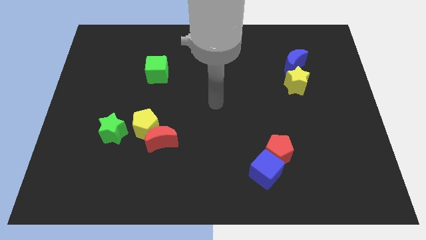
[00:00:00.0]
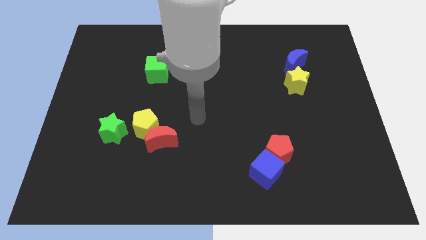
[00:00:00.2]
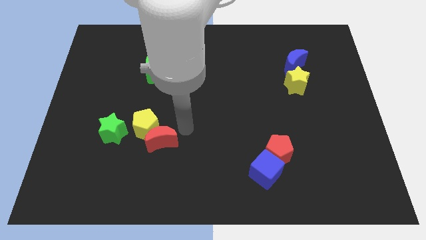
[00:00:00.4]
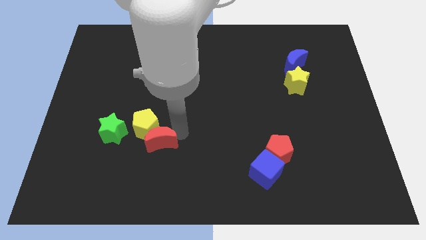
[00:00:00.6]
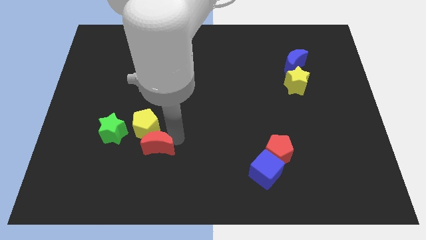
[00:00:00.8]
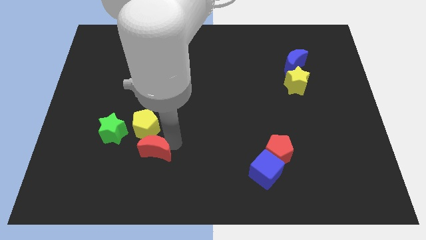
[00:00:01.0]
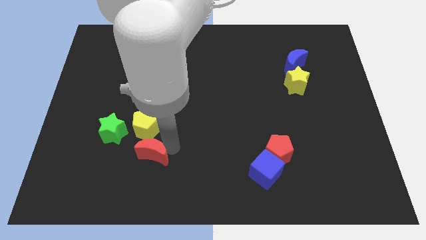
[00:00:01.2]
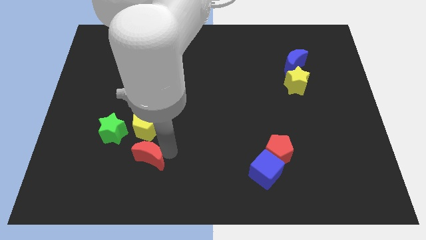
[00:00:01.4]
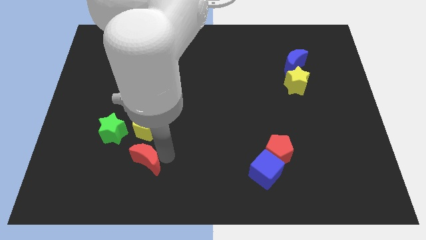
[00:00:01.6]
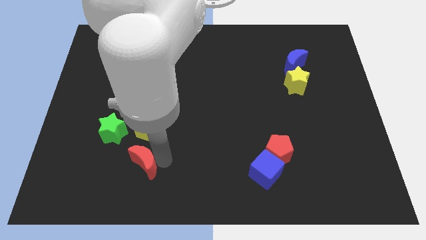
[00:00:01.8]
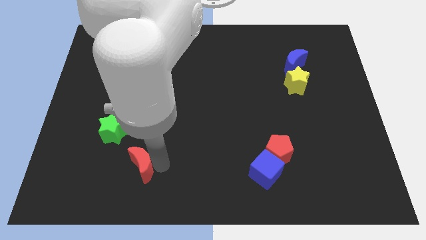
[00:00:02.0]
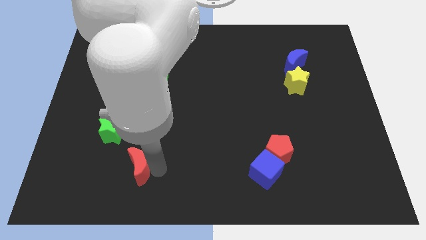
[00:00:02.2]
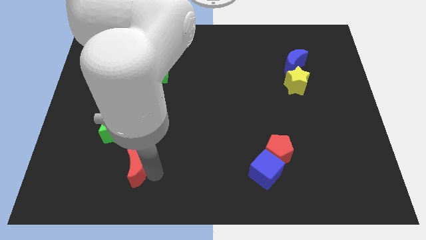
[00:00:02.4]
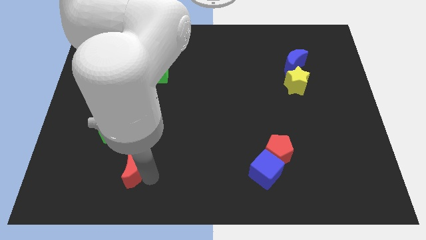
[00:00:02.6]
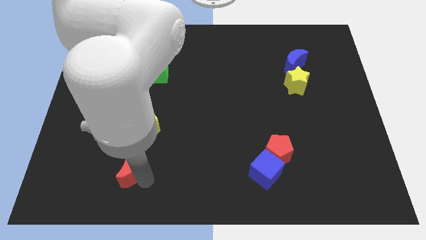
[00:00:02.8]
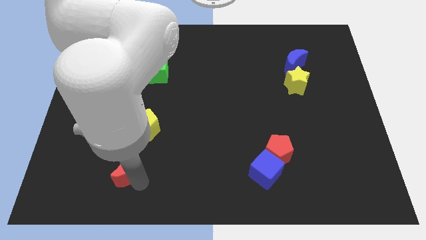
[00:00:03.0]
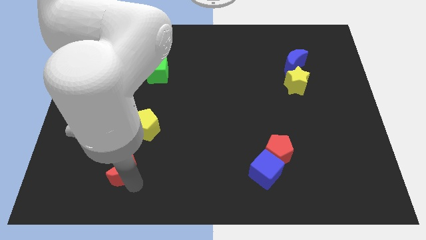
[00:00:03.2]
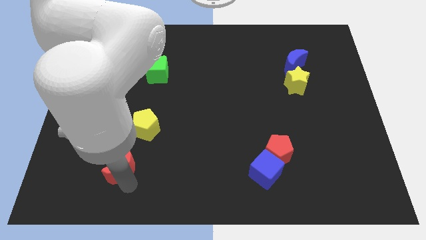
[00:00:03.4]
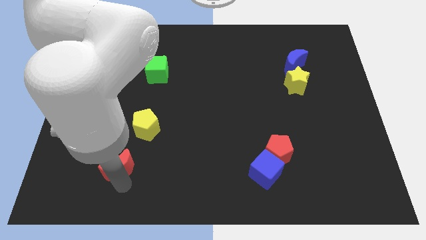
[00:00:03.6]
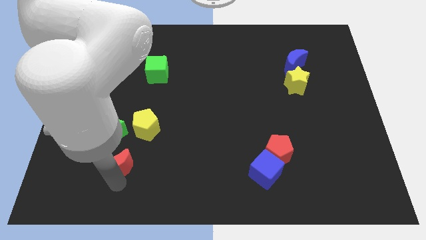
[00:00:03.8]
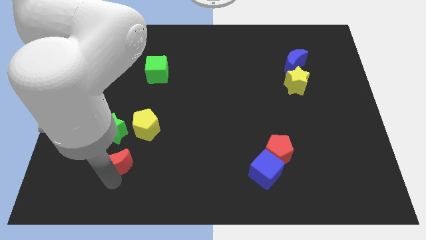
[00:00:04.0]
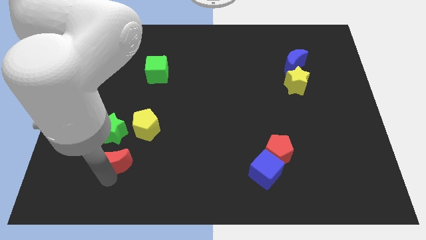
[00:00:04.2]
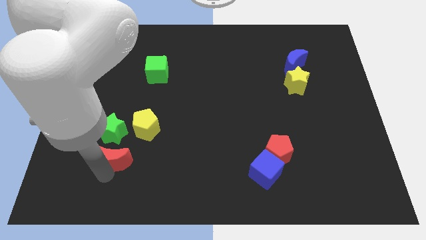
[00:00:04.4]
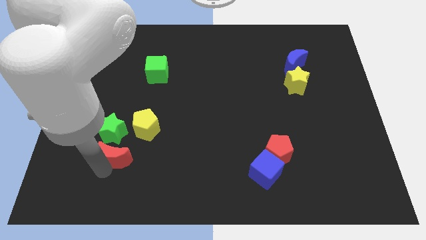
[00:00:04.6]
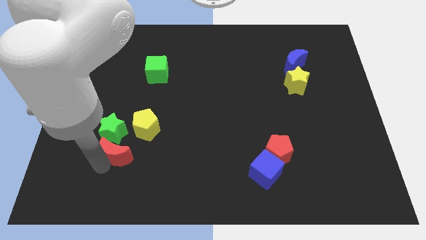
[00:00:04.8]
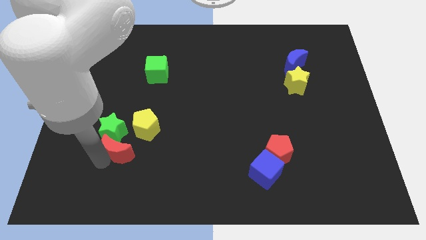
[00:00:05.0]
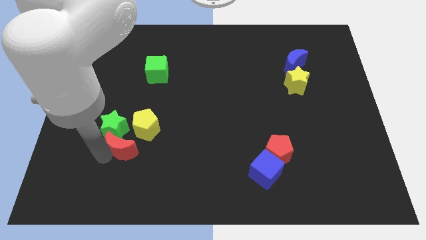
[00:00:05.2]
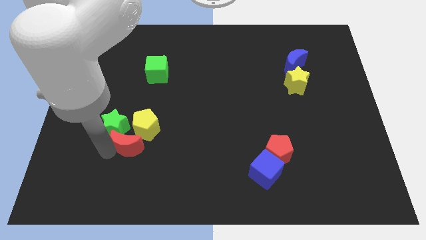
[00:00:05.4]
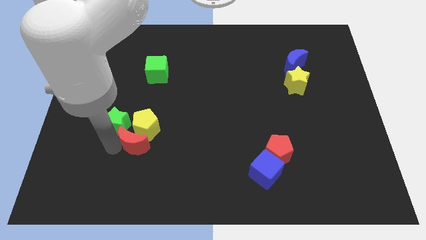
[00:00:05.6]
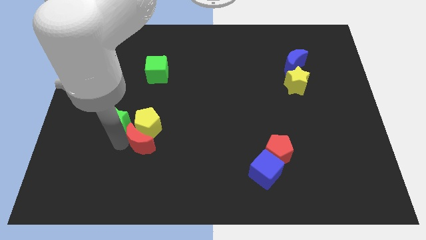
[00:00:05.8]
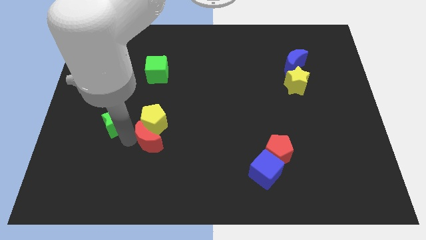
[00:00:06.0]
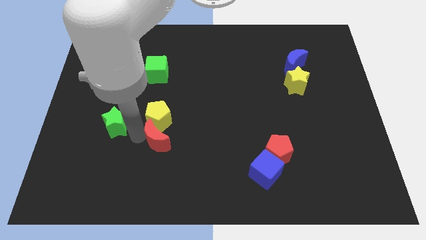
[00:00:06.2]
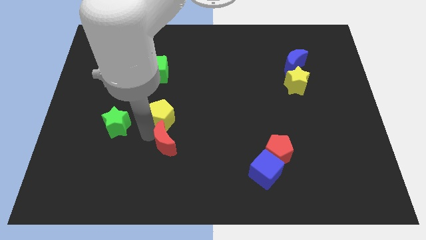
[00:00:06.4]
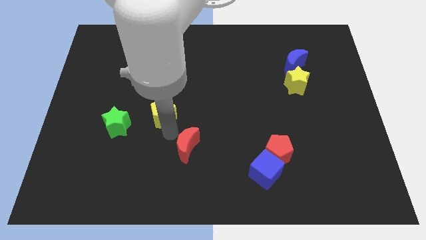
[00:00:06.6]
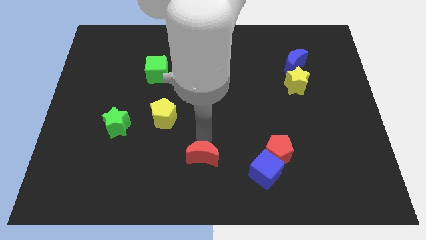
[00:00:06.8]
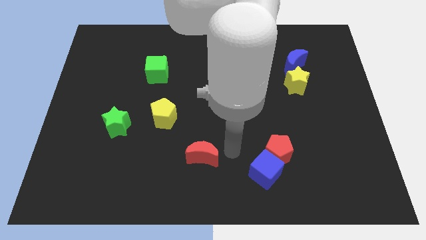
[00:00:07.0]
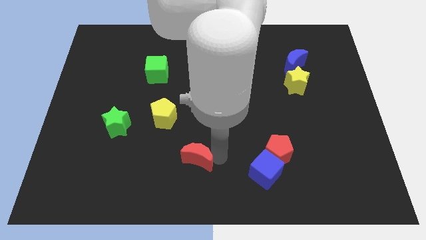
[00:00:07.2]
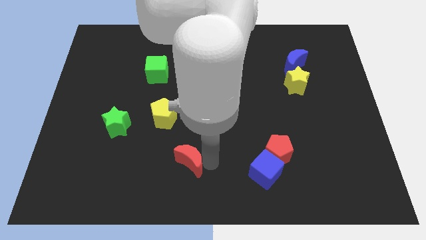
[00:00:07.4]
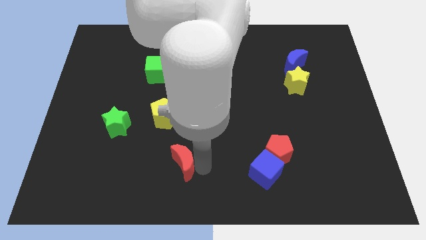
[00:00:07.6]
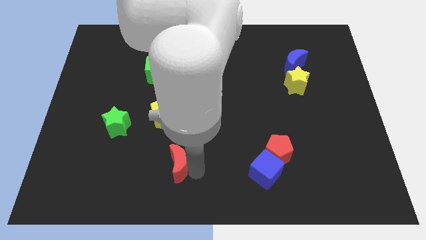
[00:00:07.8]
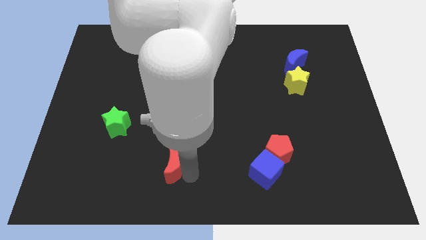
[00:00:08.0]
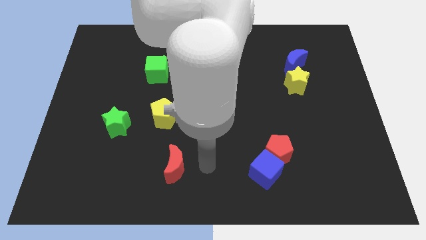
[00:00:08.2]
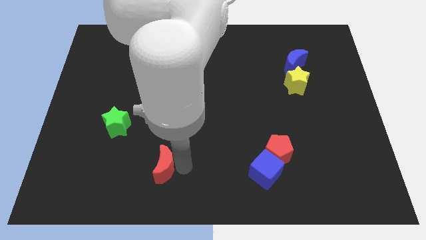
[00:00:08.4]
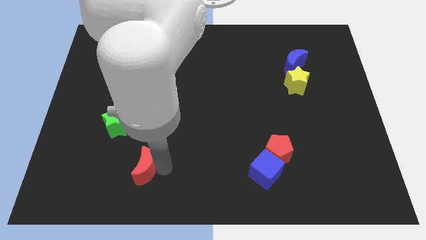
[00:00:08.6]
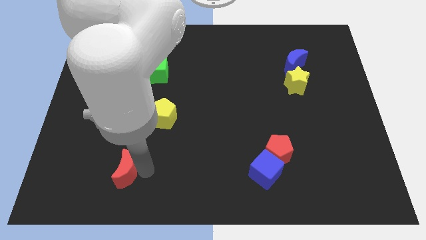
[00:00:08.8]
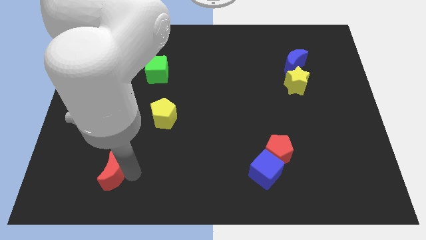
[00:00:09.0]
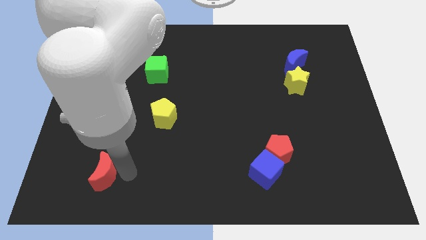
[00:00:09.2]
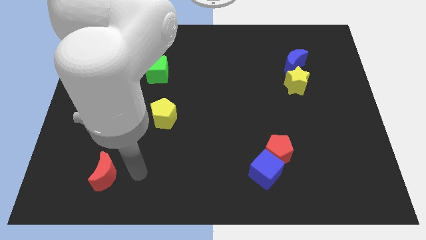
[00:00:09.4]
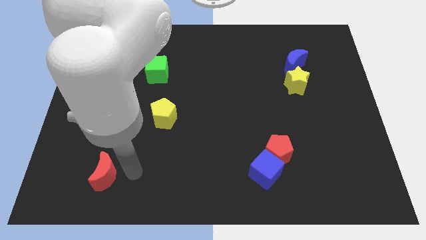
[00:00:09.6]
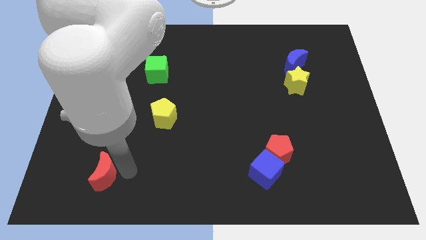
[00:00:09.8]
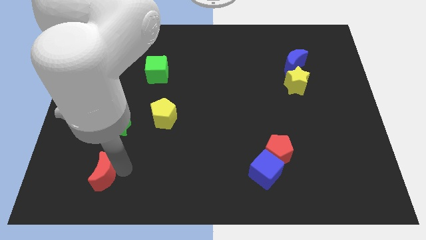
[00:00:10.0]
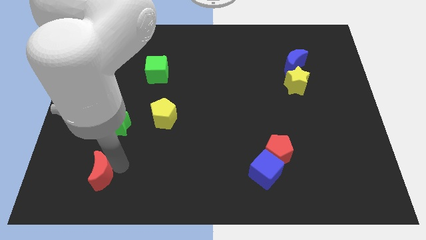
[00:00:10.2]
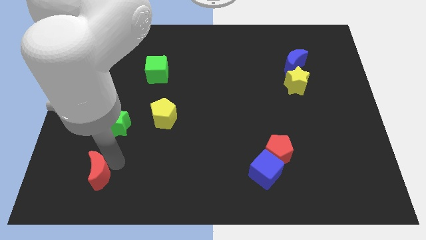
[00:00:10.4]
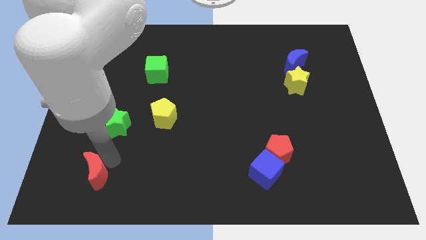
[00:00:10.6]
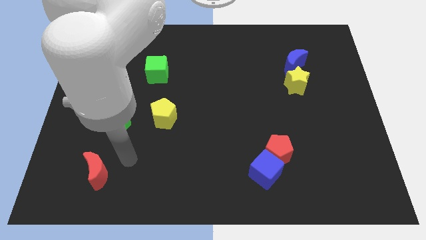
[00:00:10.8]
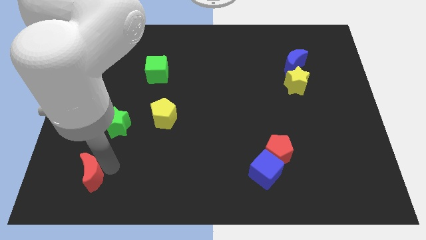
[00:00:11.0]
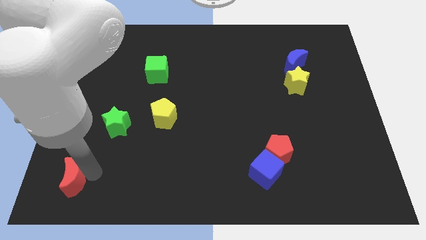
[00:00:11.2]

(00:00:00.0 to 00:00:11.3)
push the red moon to the bottom left

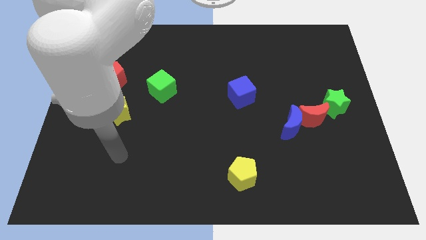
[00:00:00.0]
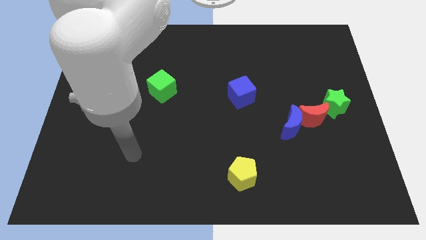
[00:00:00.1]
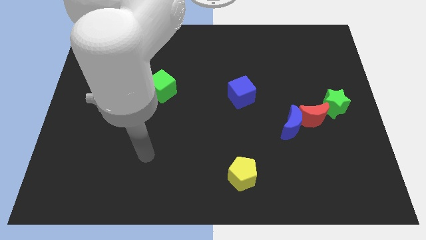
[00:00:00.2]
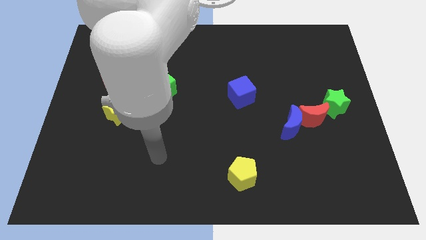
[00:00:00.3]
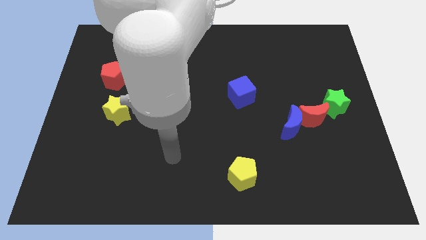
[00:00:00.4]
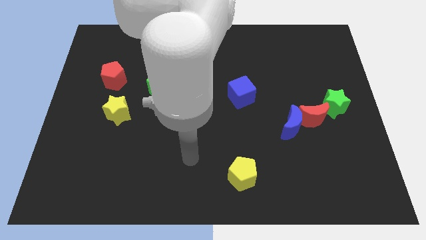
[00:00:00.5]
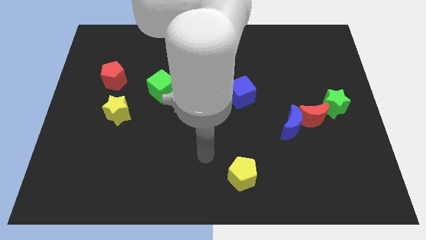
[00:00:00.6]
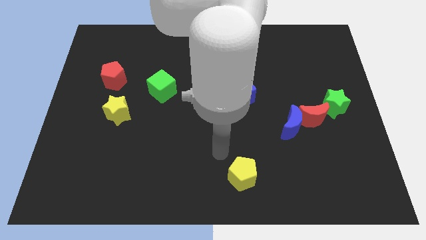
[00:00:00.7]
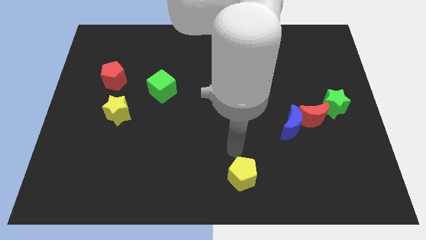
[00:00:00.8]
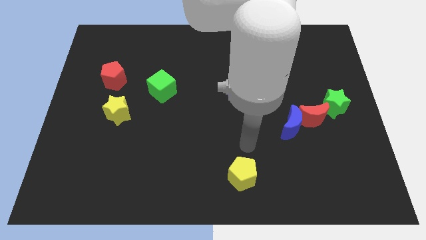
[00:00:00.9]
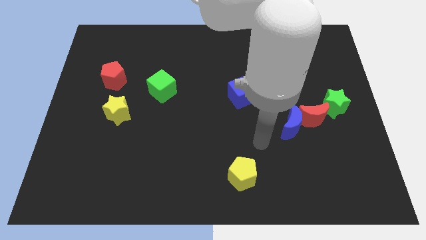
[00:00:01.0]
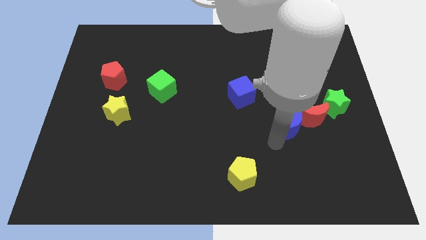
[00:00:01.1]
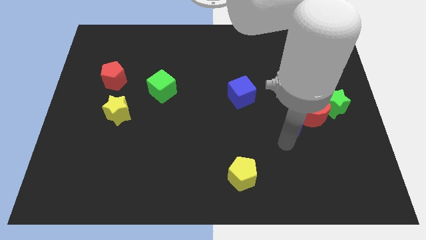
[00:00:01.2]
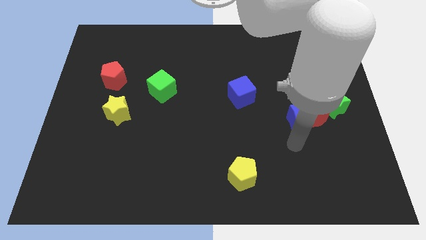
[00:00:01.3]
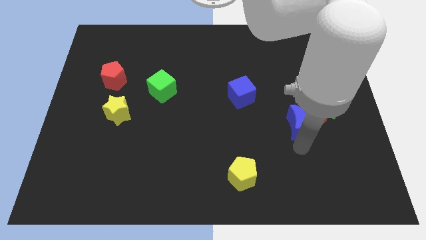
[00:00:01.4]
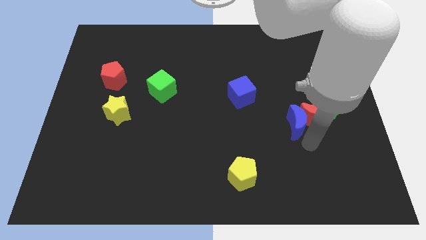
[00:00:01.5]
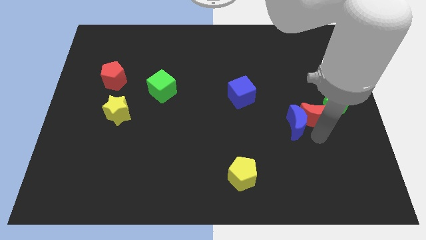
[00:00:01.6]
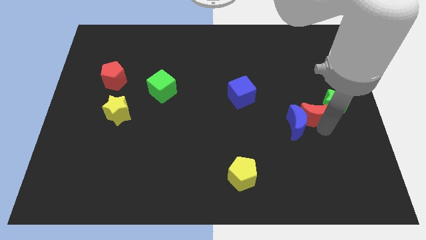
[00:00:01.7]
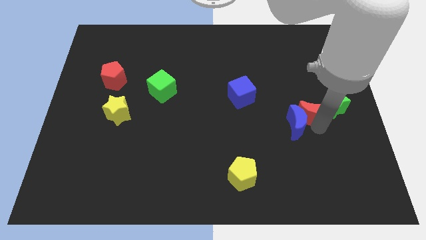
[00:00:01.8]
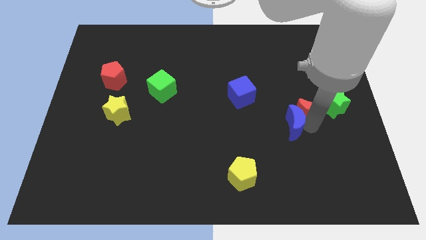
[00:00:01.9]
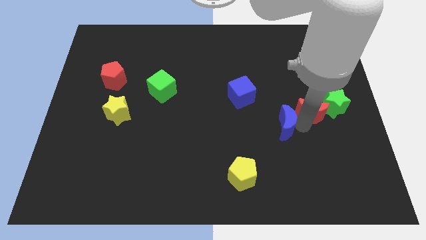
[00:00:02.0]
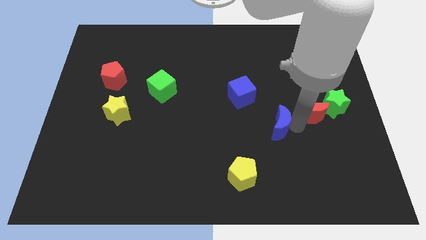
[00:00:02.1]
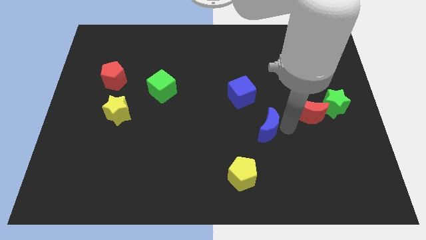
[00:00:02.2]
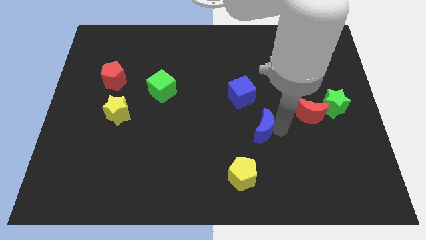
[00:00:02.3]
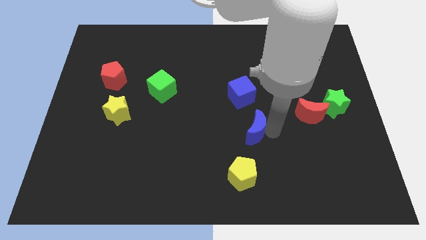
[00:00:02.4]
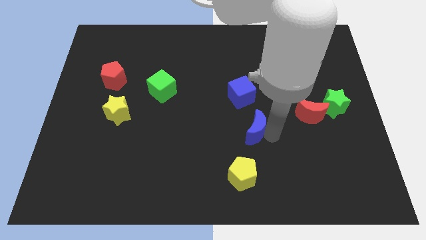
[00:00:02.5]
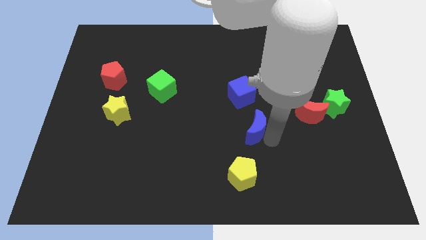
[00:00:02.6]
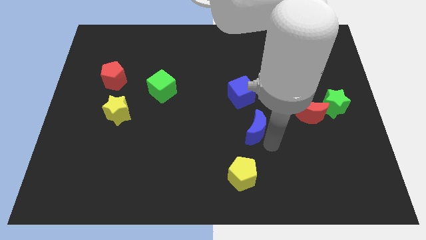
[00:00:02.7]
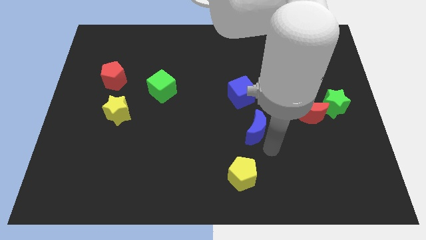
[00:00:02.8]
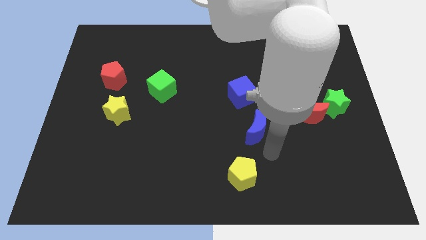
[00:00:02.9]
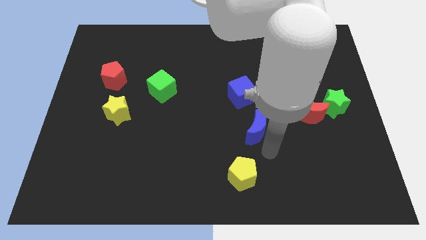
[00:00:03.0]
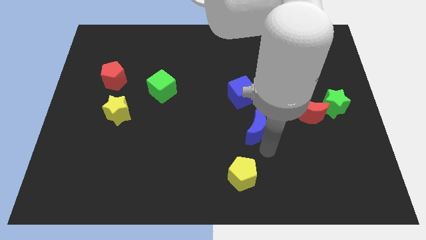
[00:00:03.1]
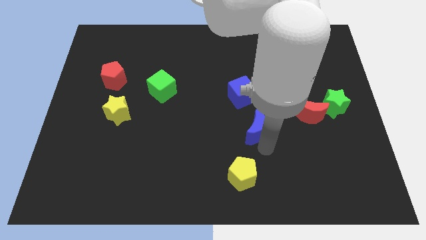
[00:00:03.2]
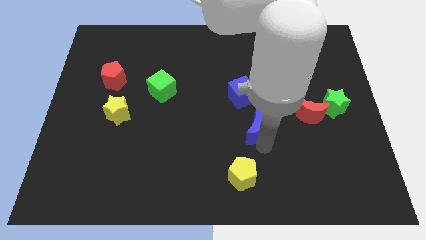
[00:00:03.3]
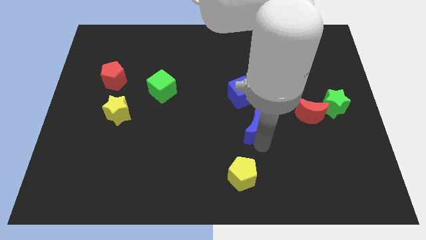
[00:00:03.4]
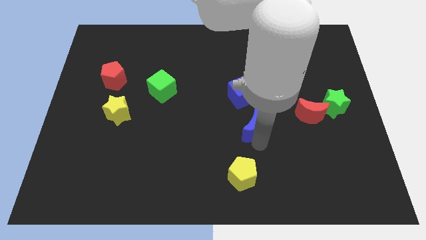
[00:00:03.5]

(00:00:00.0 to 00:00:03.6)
put the blue moon to the middle
